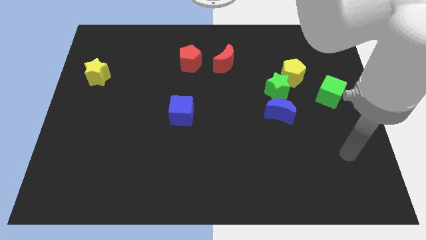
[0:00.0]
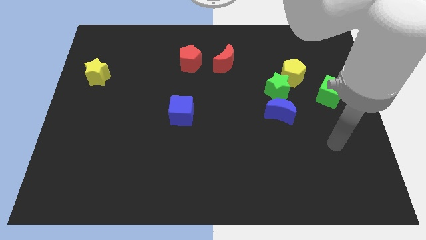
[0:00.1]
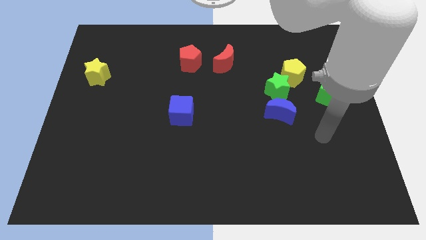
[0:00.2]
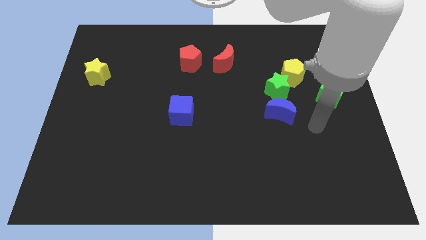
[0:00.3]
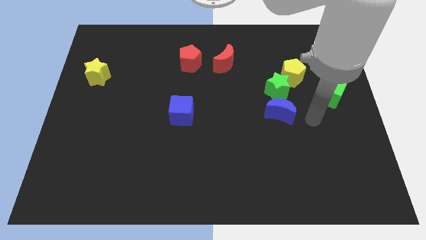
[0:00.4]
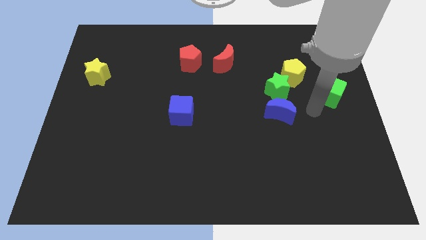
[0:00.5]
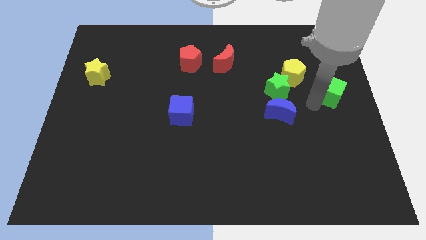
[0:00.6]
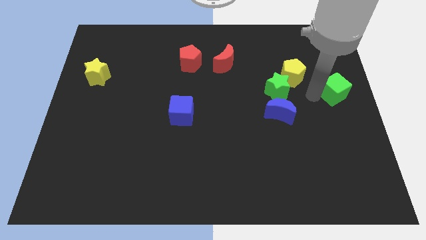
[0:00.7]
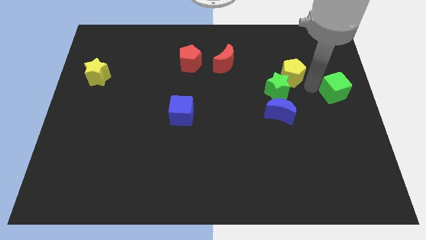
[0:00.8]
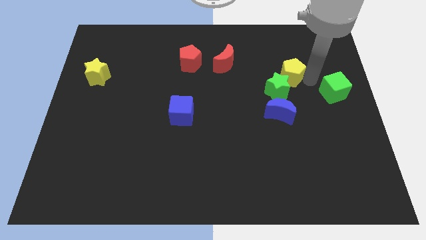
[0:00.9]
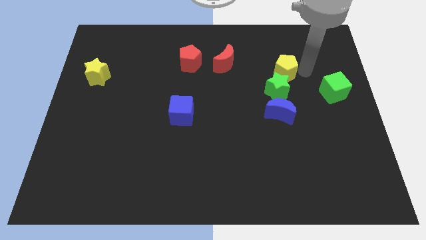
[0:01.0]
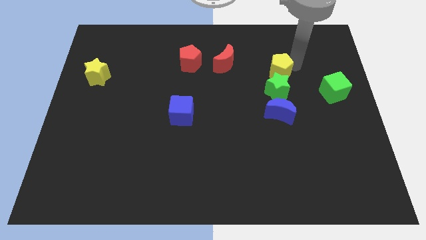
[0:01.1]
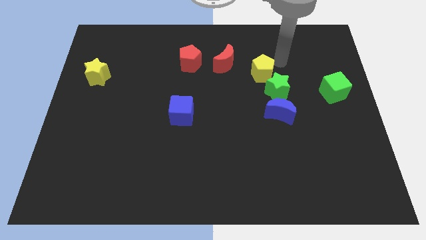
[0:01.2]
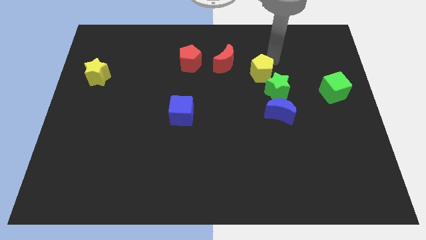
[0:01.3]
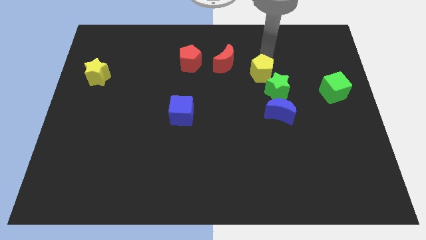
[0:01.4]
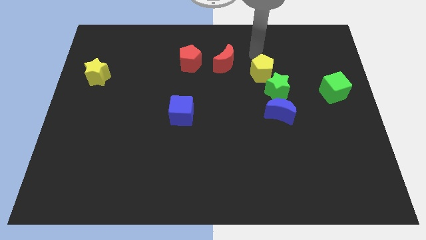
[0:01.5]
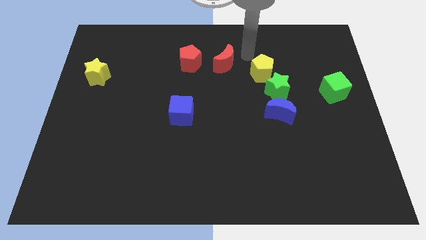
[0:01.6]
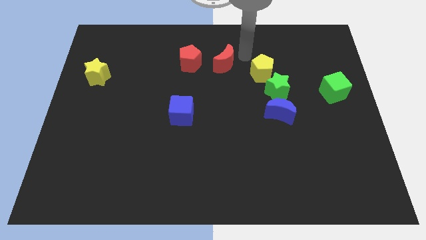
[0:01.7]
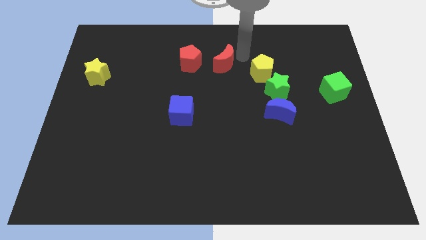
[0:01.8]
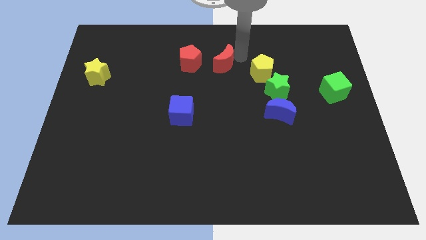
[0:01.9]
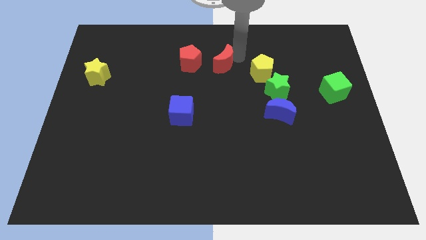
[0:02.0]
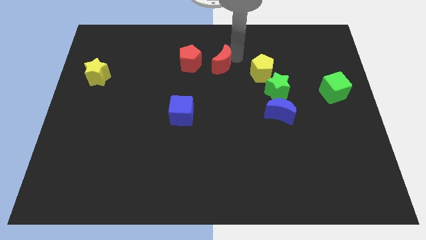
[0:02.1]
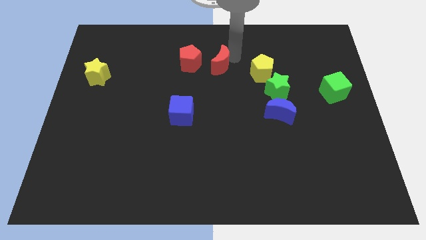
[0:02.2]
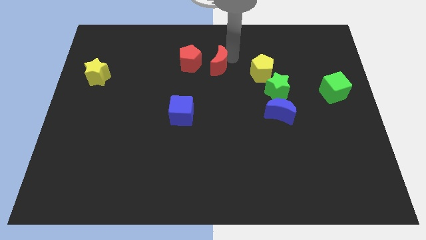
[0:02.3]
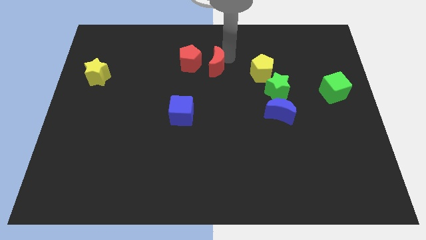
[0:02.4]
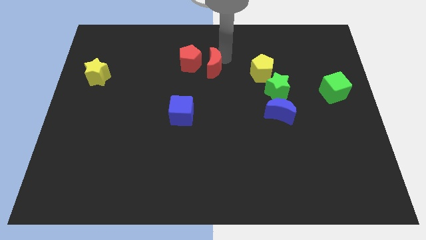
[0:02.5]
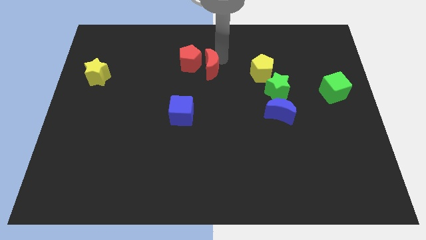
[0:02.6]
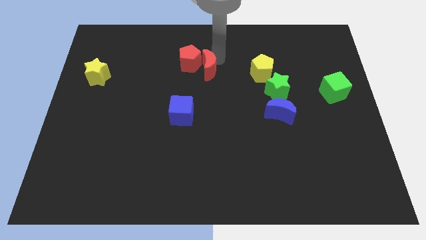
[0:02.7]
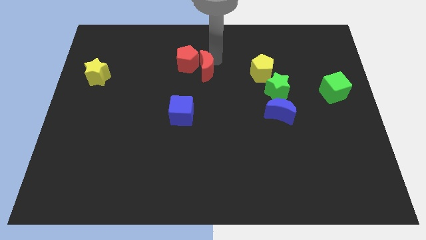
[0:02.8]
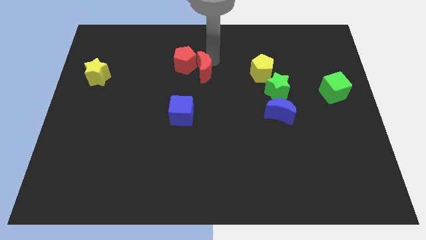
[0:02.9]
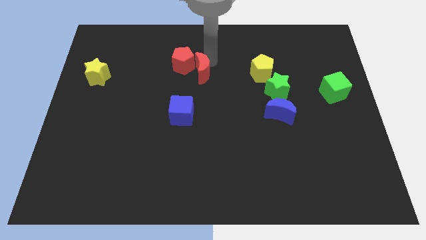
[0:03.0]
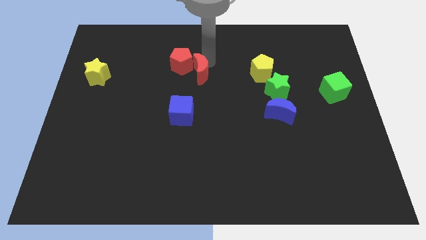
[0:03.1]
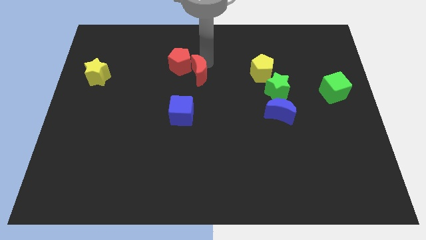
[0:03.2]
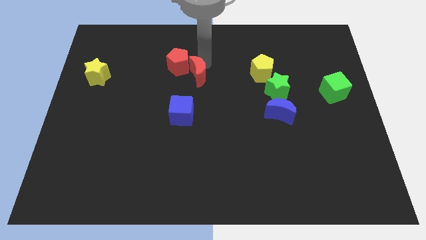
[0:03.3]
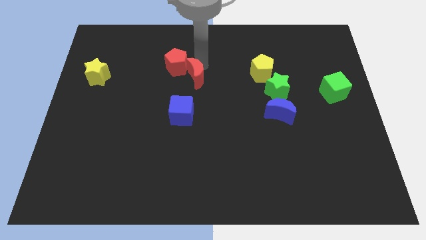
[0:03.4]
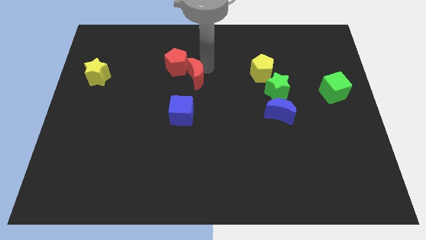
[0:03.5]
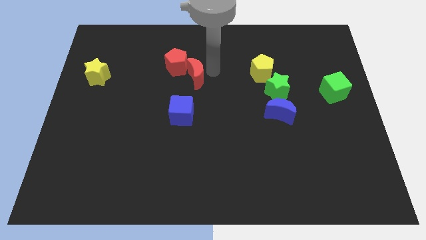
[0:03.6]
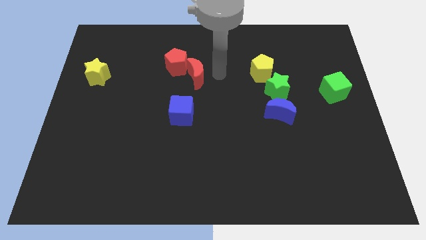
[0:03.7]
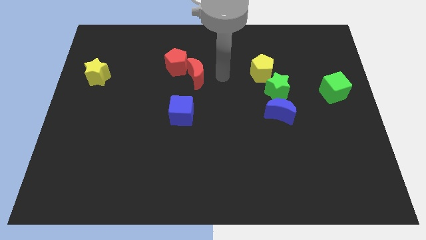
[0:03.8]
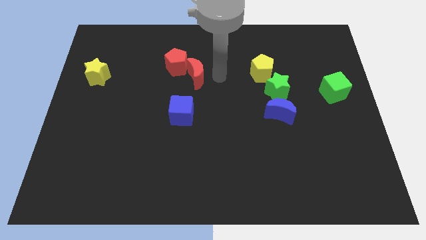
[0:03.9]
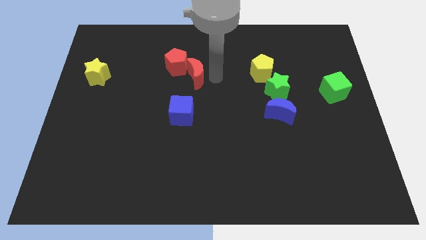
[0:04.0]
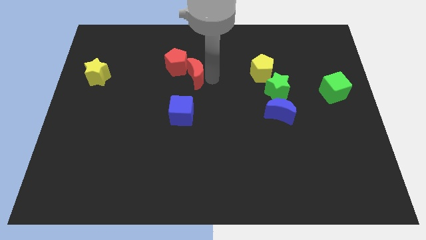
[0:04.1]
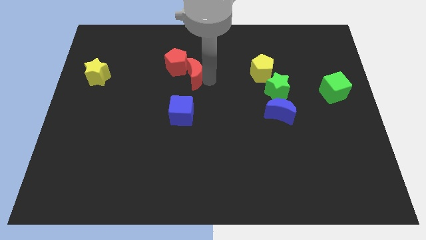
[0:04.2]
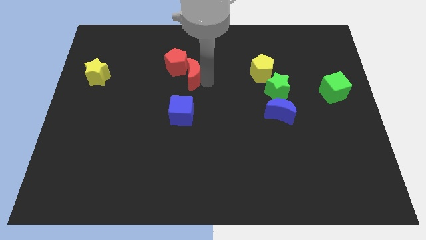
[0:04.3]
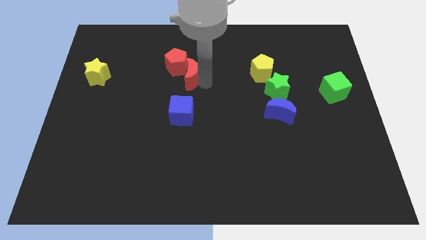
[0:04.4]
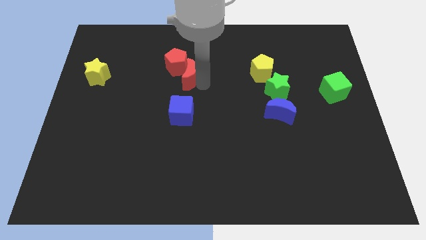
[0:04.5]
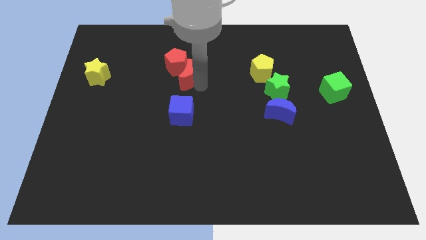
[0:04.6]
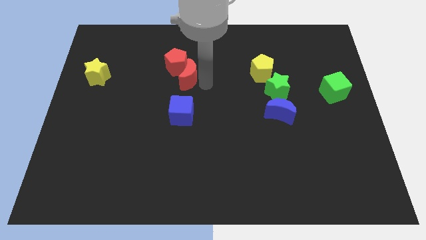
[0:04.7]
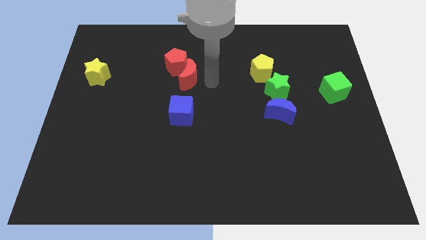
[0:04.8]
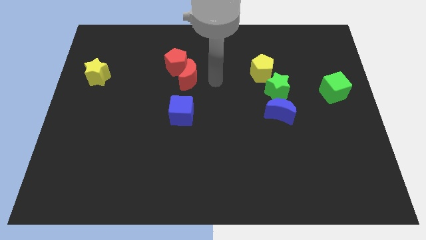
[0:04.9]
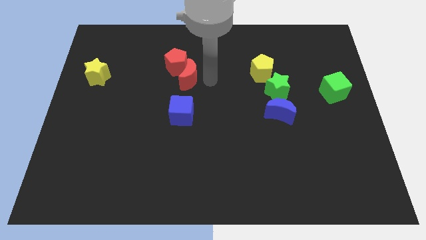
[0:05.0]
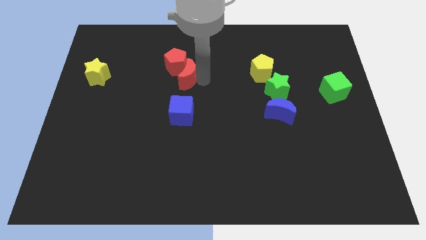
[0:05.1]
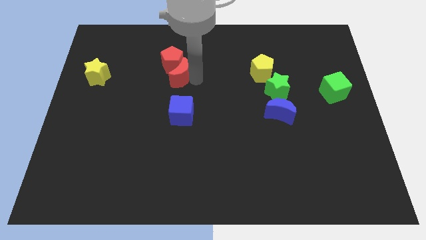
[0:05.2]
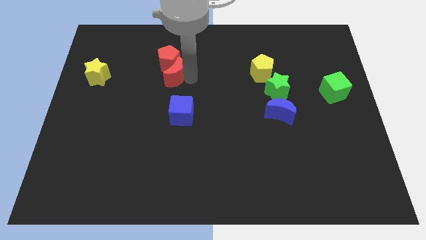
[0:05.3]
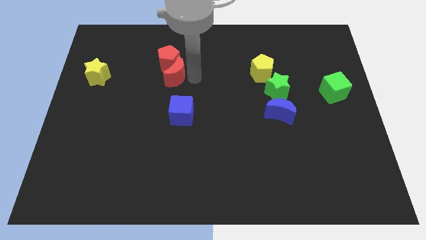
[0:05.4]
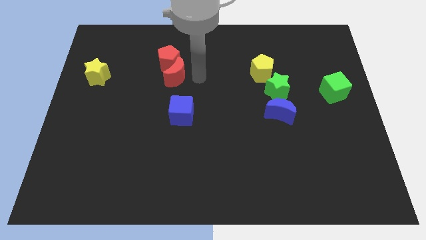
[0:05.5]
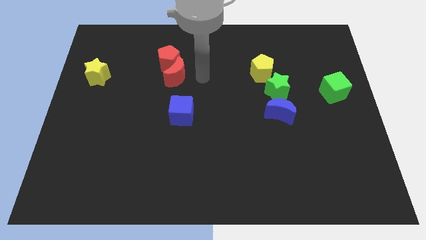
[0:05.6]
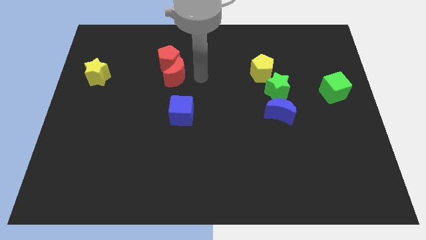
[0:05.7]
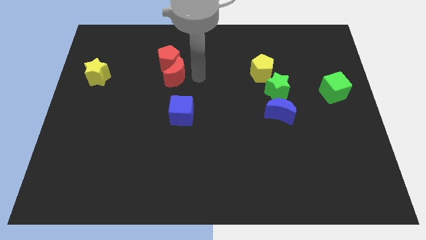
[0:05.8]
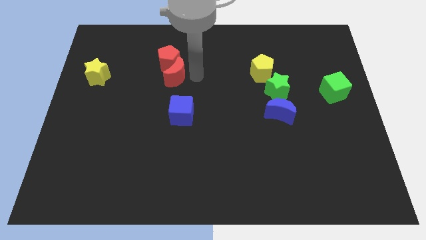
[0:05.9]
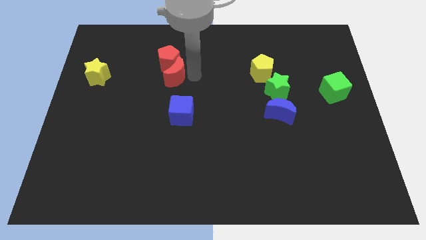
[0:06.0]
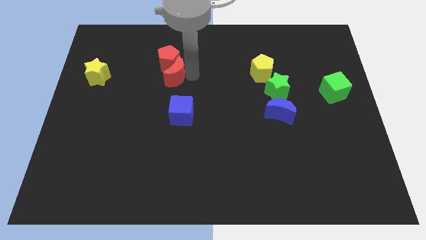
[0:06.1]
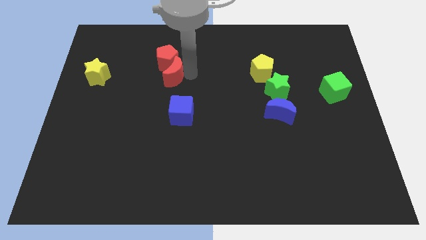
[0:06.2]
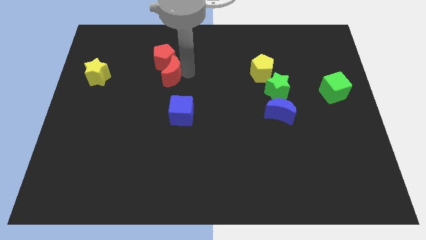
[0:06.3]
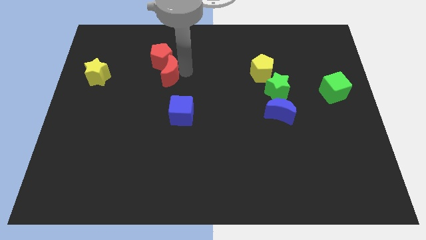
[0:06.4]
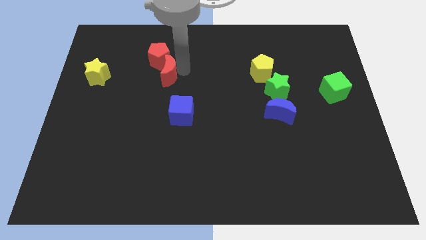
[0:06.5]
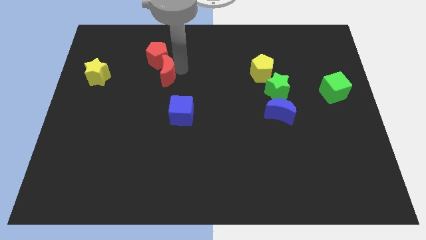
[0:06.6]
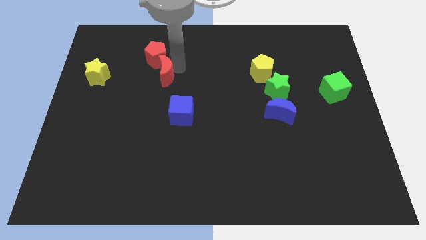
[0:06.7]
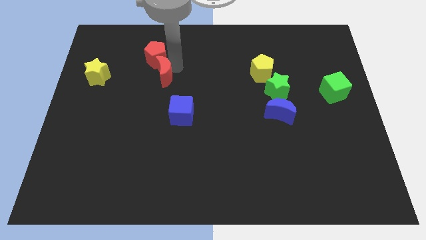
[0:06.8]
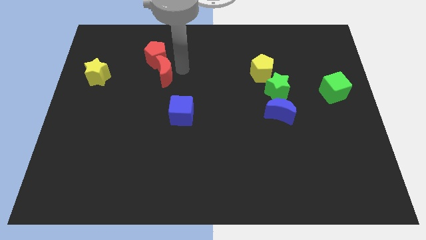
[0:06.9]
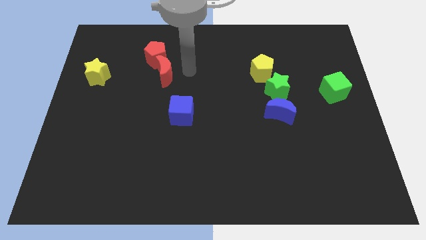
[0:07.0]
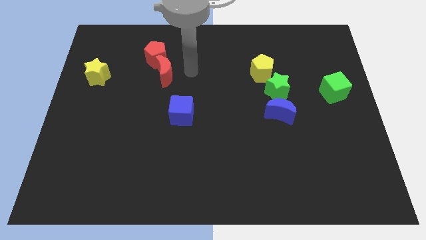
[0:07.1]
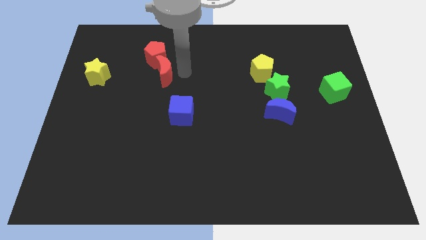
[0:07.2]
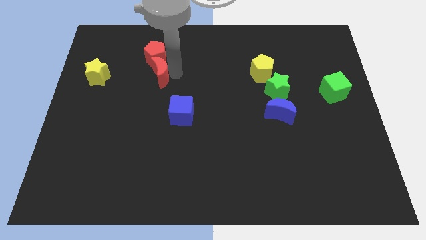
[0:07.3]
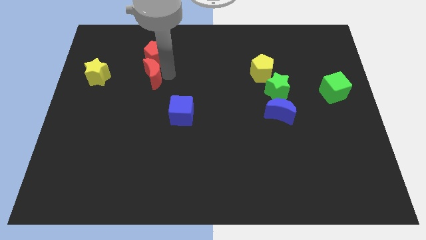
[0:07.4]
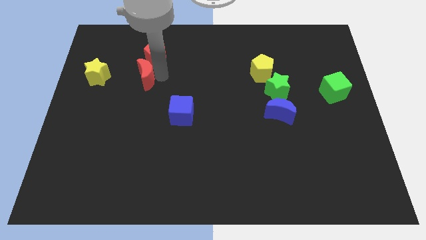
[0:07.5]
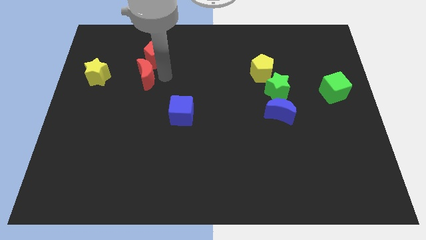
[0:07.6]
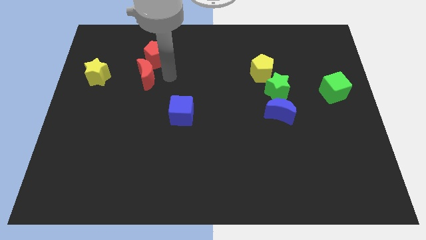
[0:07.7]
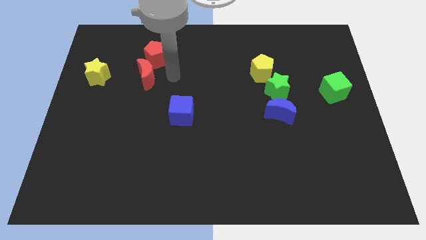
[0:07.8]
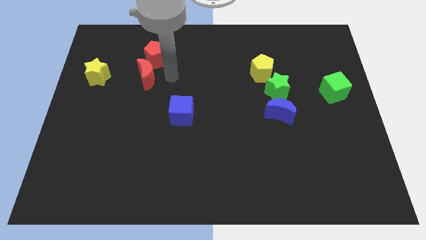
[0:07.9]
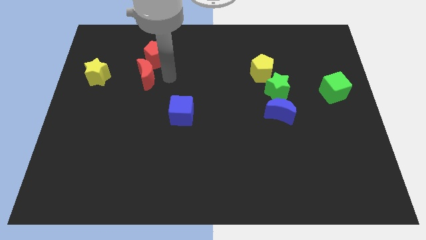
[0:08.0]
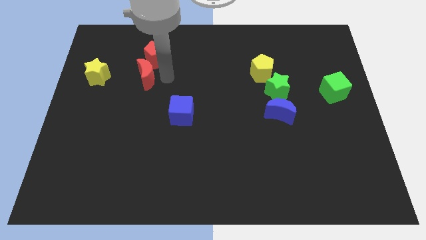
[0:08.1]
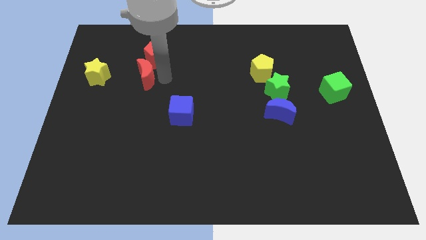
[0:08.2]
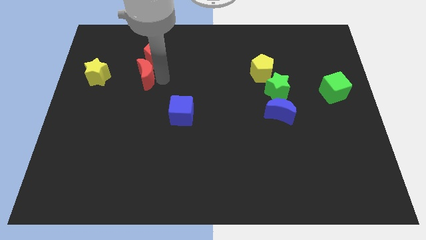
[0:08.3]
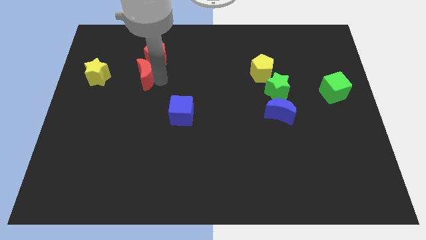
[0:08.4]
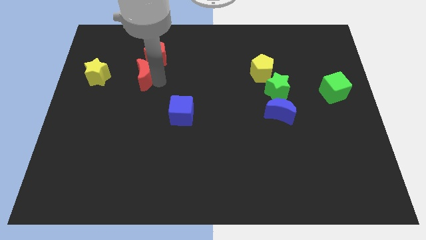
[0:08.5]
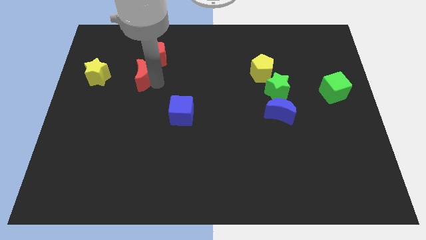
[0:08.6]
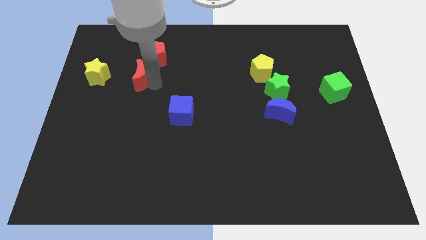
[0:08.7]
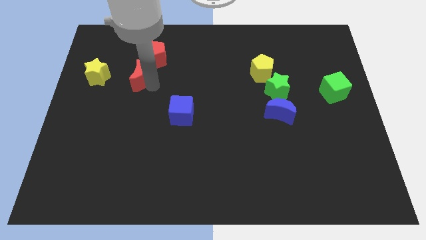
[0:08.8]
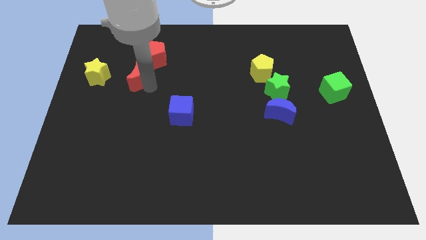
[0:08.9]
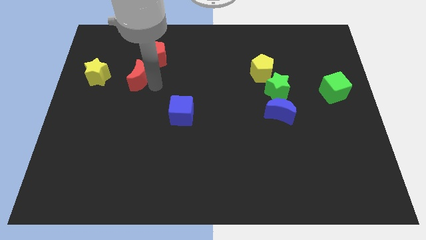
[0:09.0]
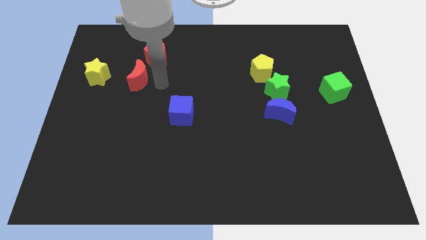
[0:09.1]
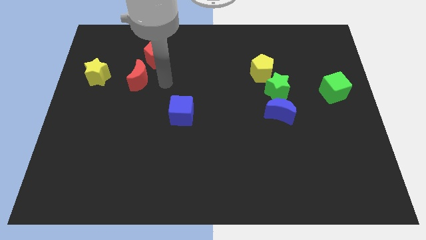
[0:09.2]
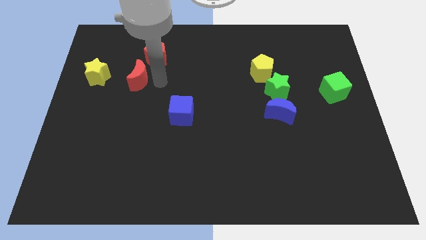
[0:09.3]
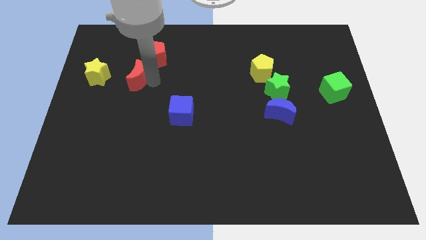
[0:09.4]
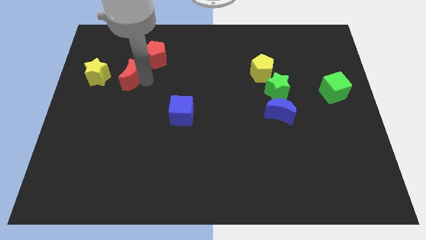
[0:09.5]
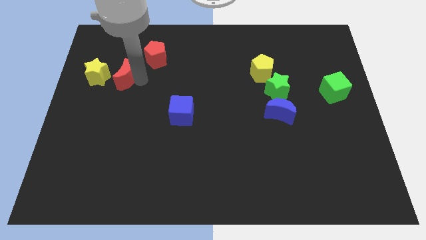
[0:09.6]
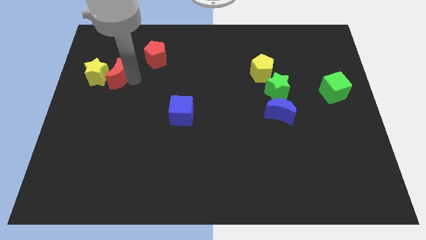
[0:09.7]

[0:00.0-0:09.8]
slide the red moon to the yellow star
